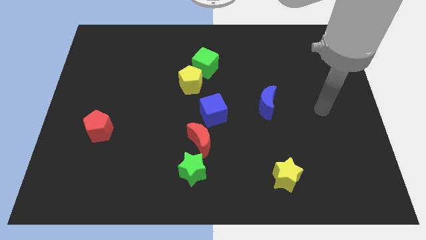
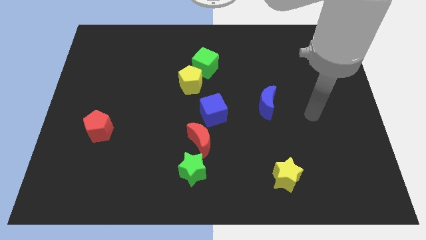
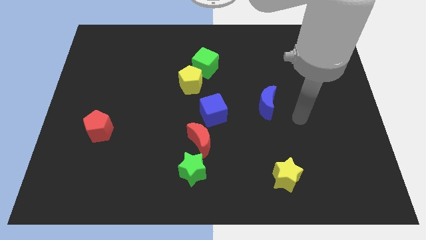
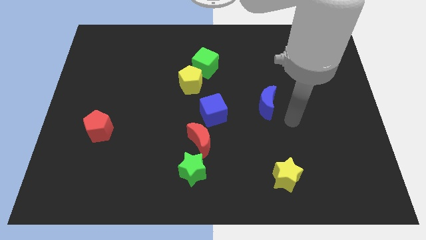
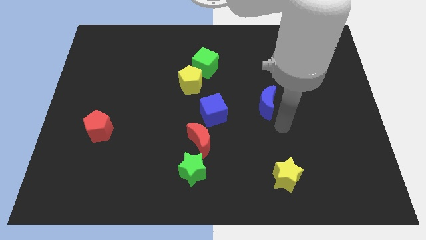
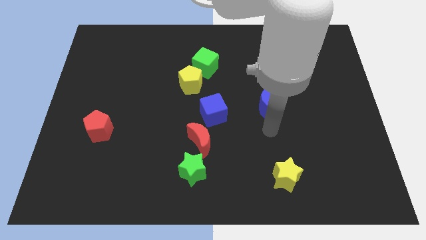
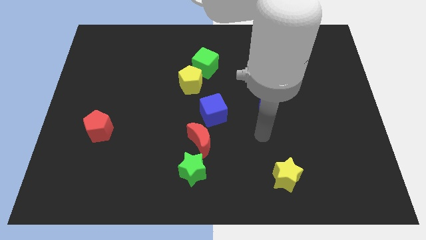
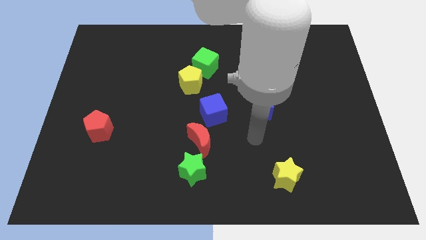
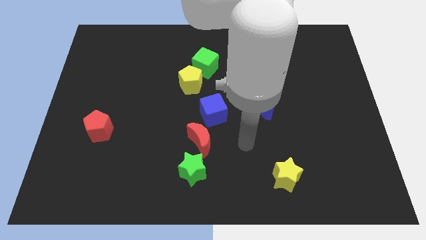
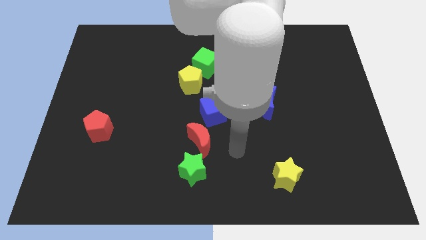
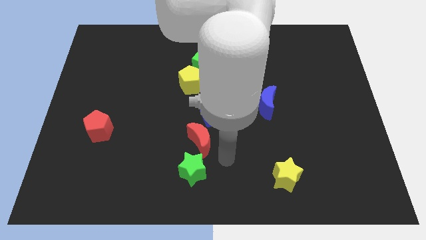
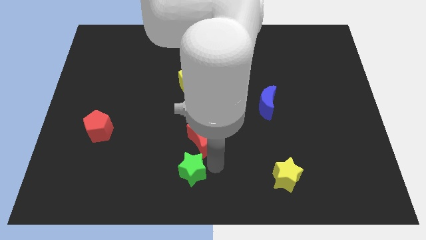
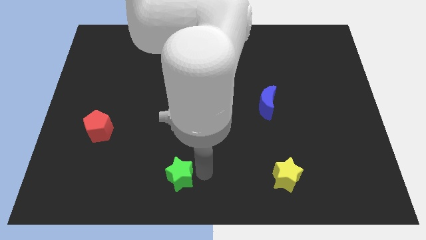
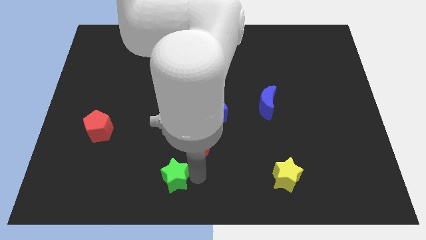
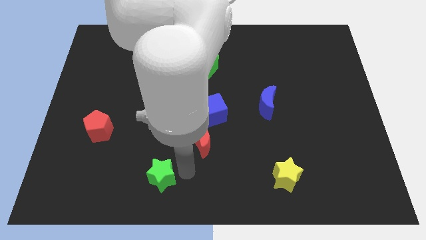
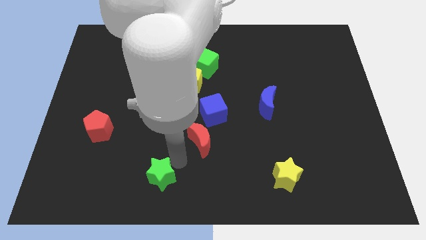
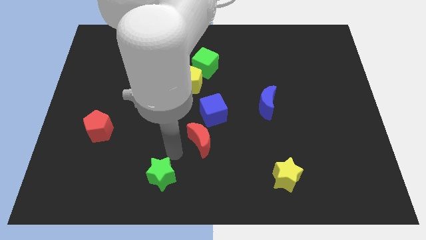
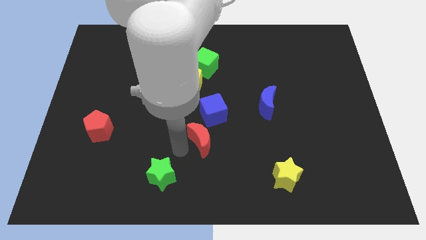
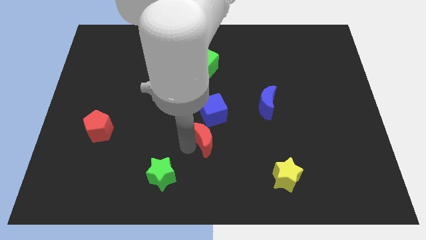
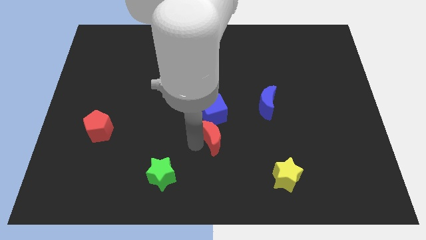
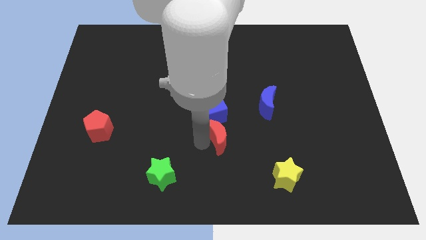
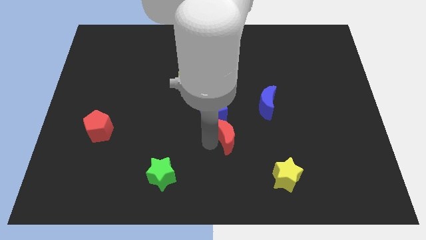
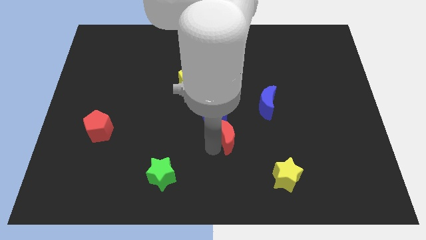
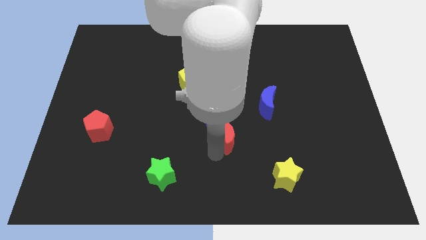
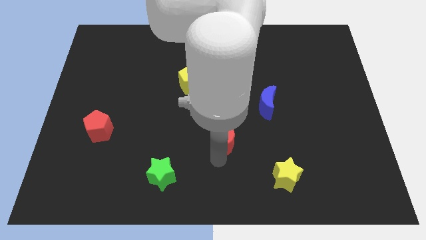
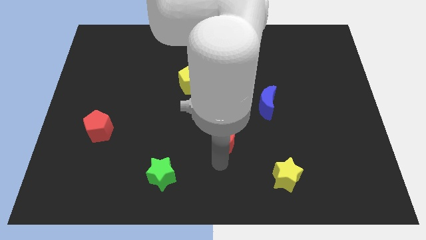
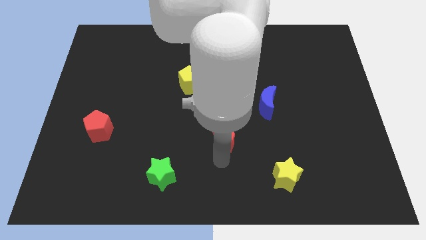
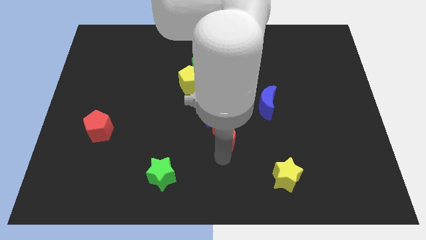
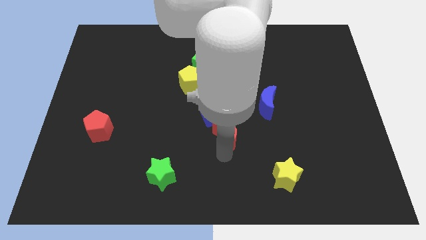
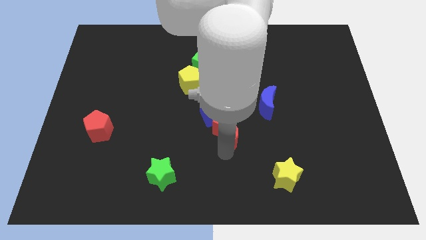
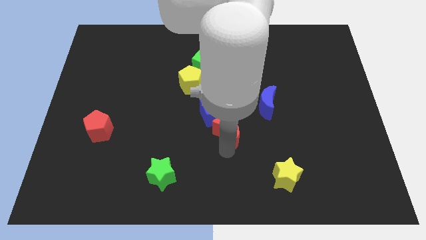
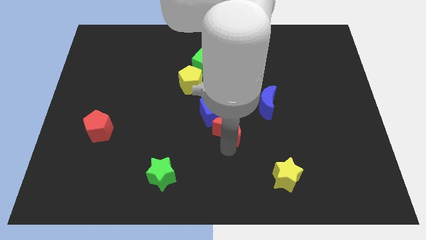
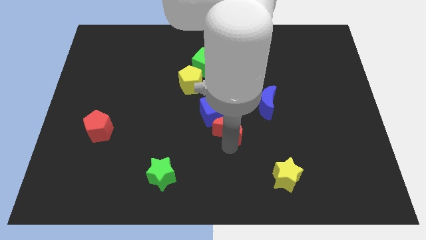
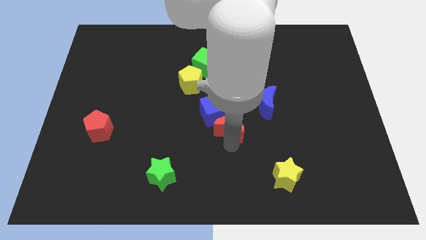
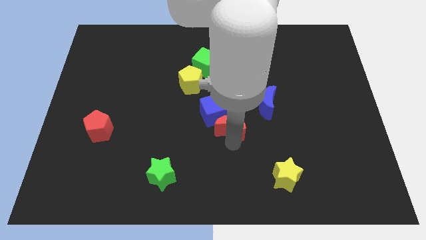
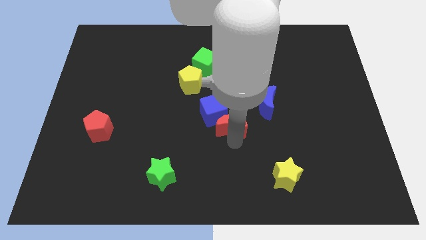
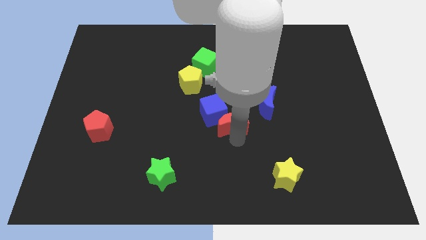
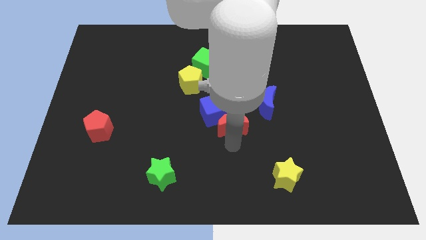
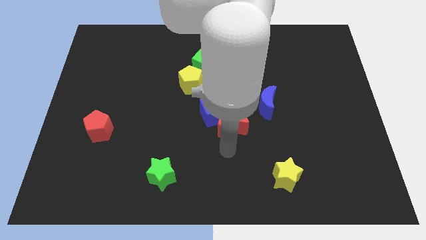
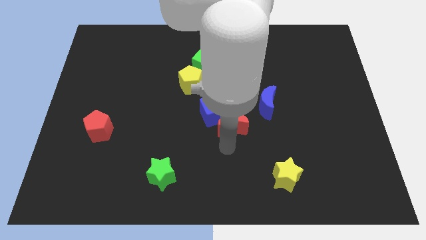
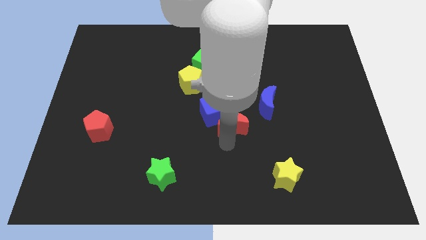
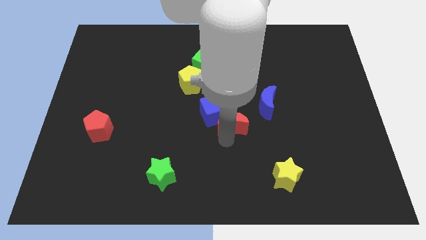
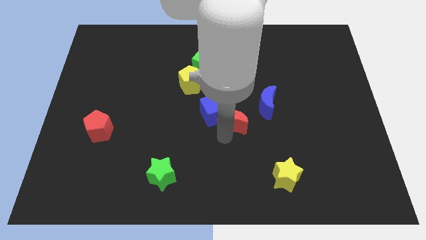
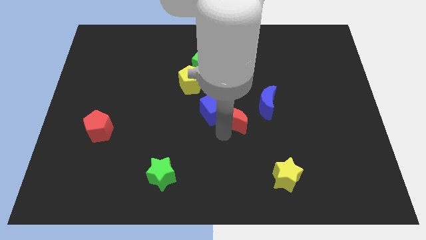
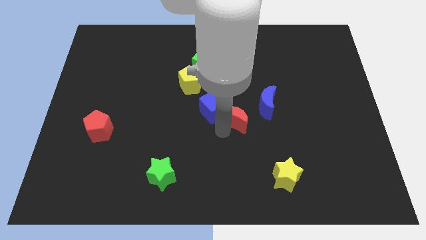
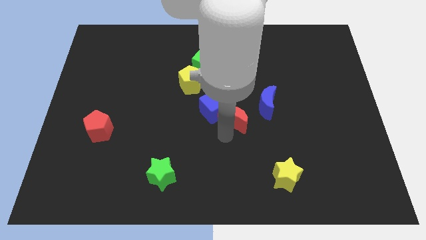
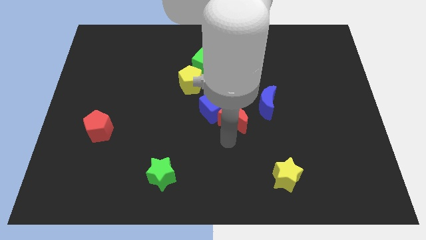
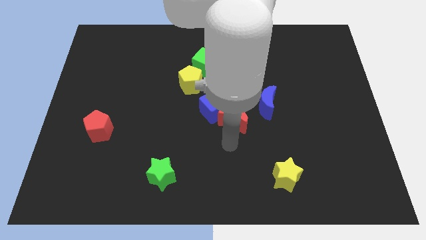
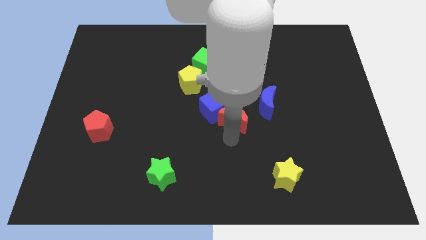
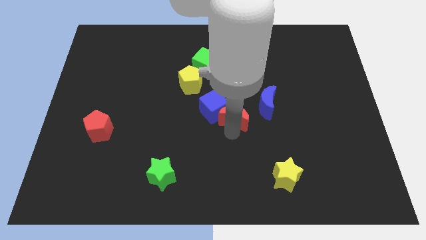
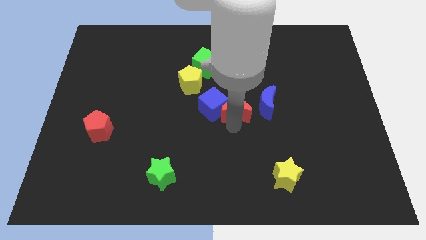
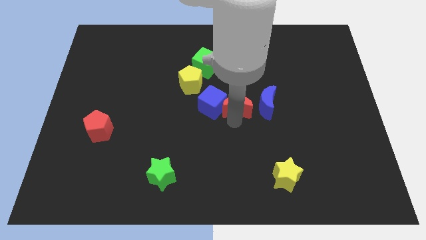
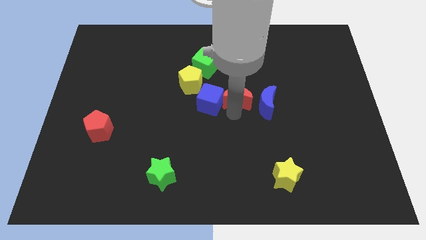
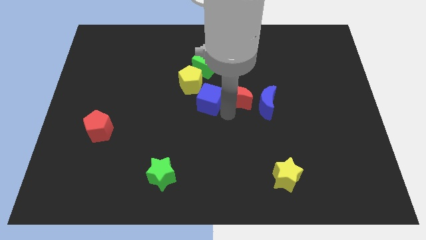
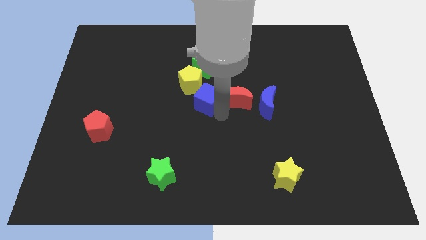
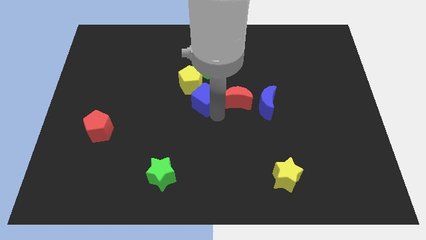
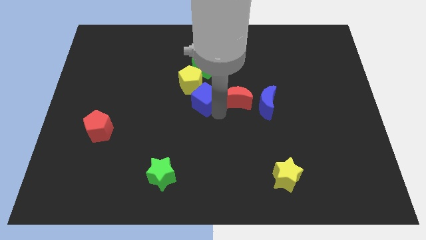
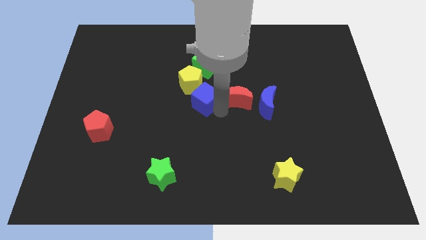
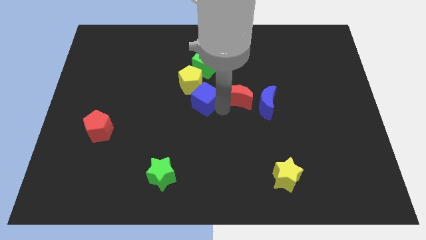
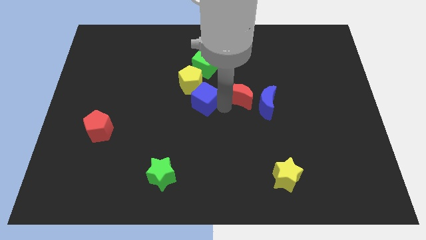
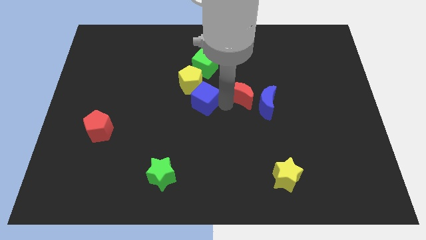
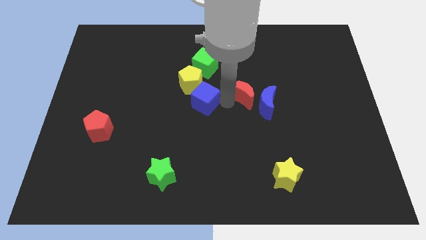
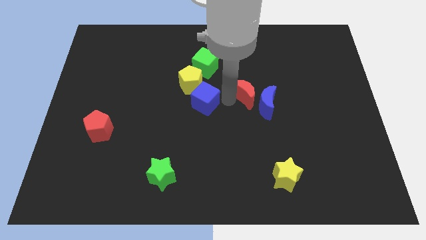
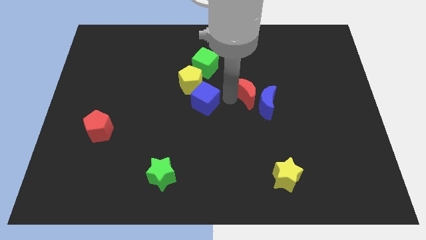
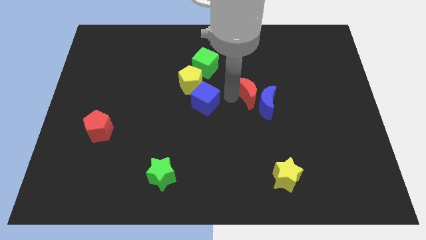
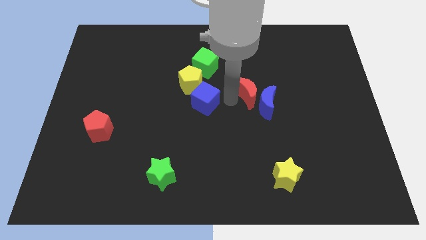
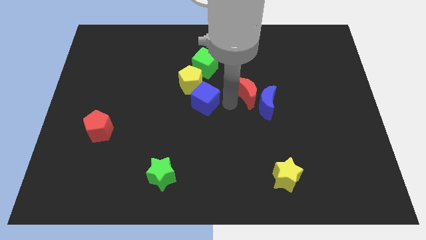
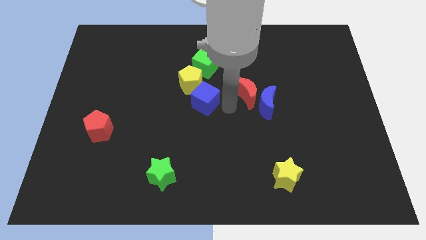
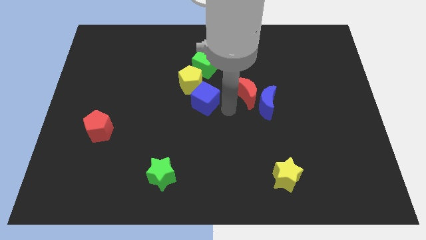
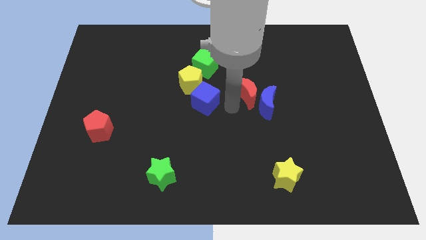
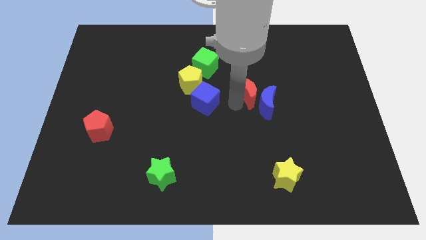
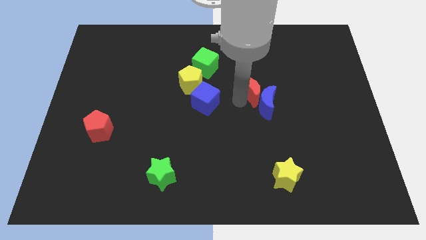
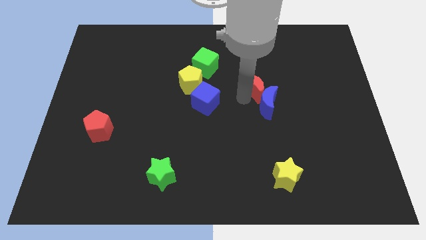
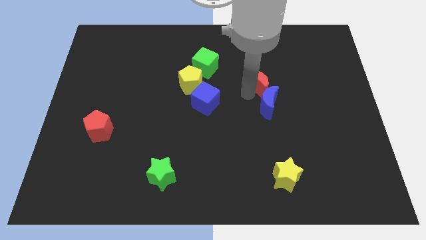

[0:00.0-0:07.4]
move the red moon diagonally upwards and to the right

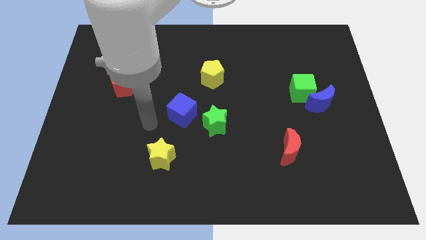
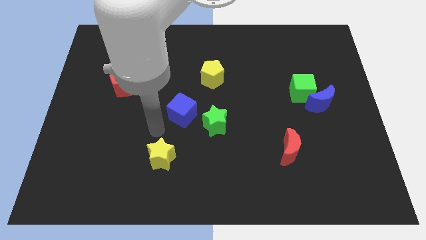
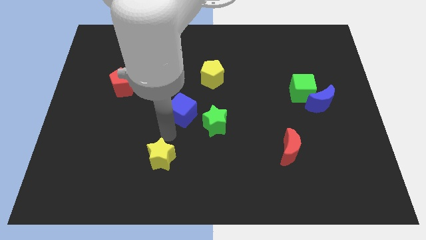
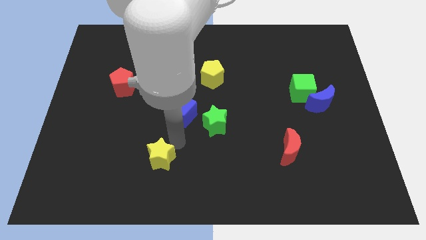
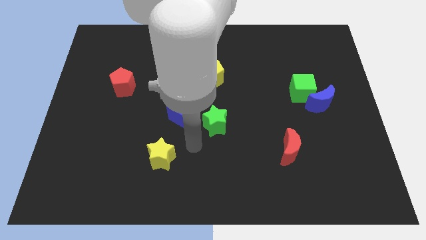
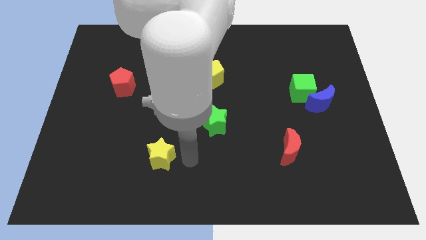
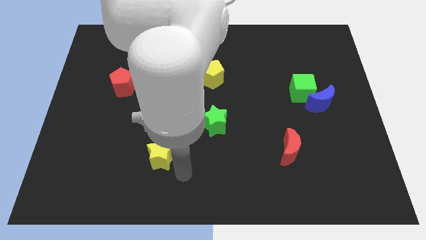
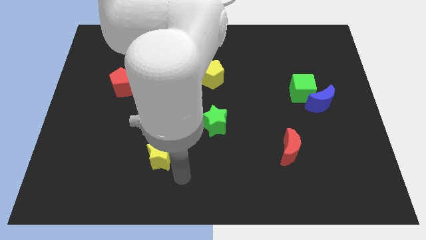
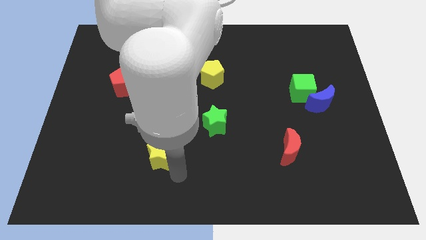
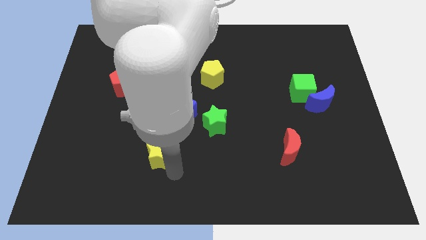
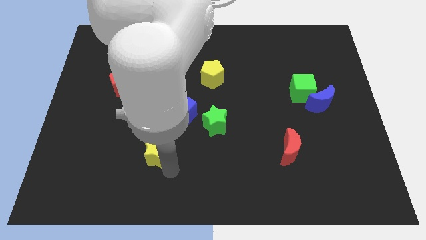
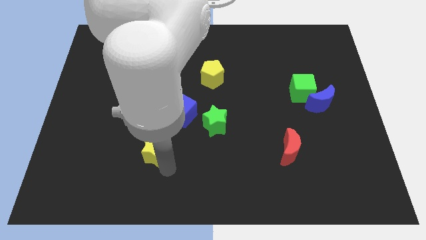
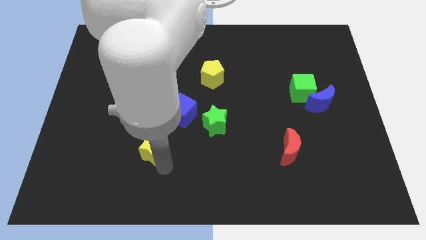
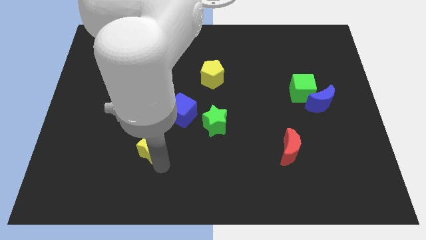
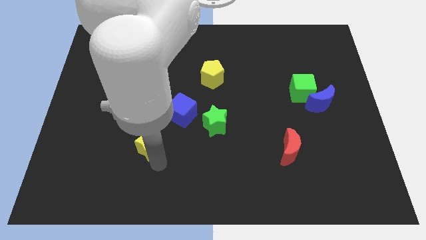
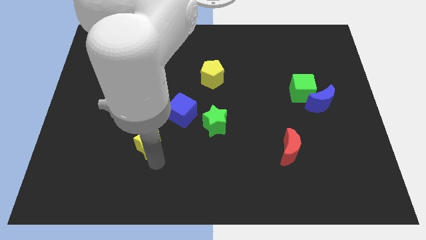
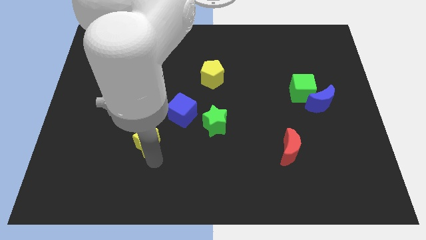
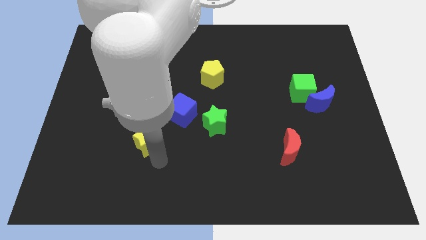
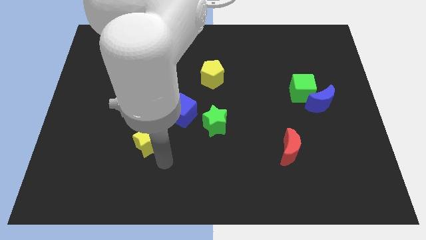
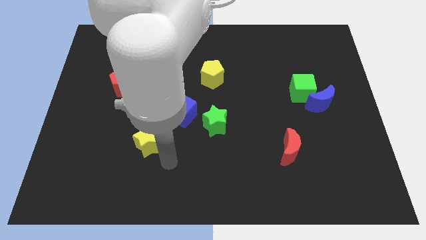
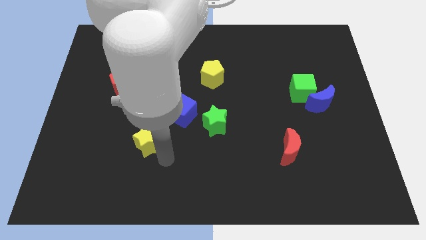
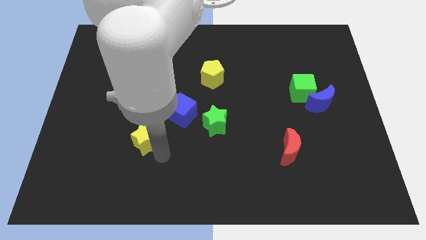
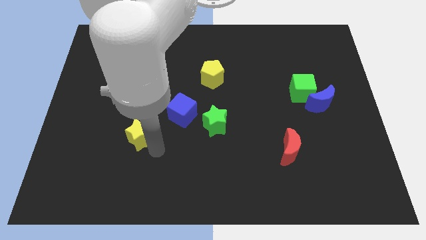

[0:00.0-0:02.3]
push the yellow star a little bit up and left diagonally
